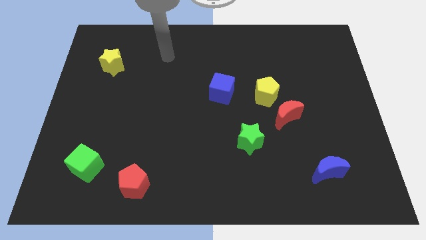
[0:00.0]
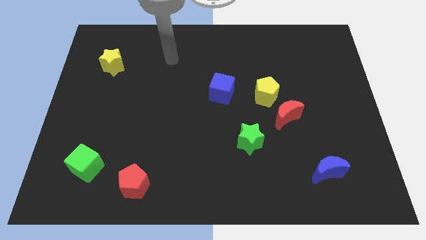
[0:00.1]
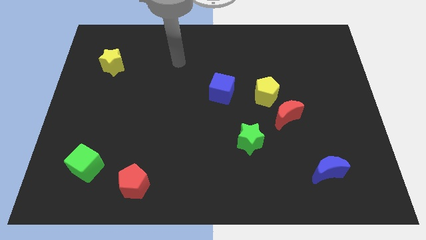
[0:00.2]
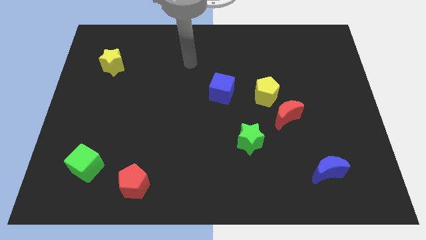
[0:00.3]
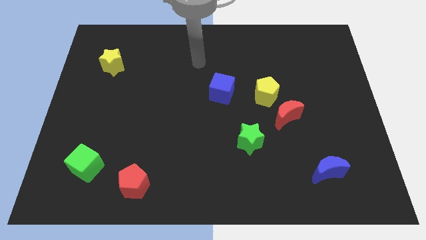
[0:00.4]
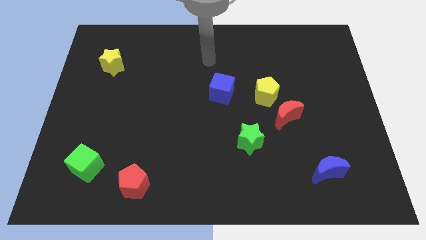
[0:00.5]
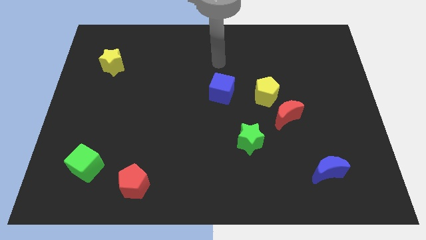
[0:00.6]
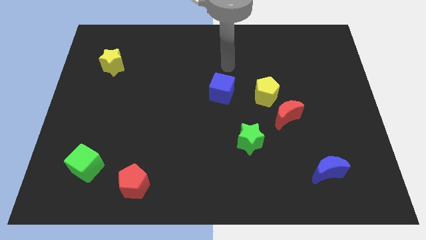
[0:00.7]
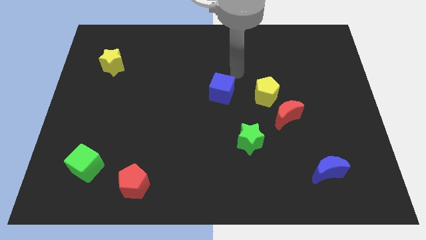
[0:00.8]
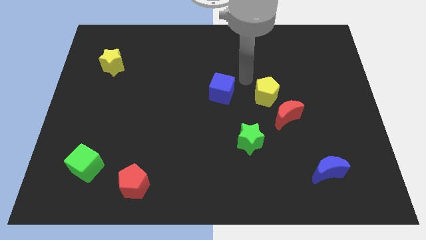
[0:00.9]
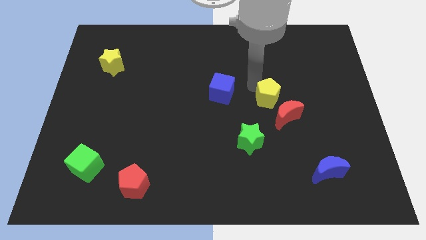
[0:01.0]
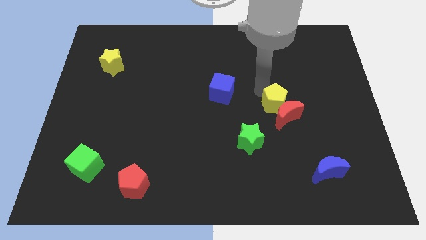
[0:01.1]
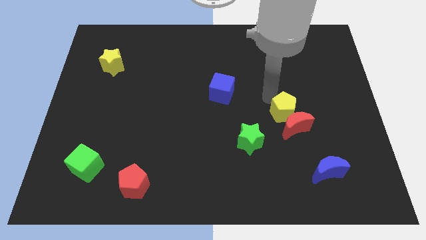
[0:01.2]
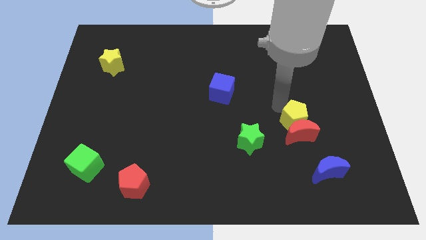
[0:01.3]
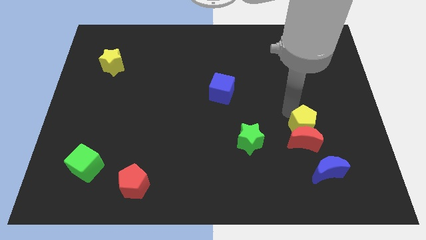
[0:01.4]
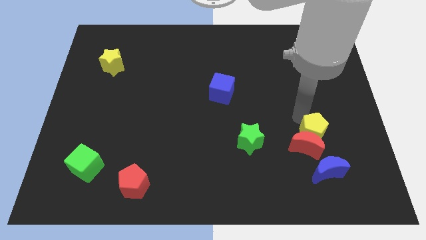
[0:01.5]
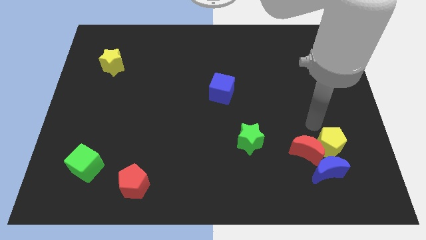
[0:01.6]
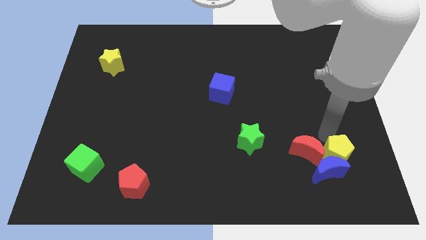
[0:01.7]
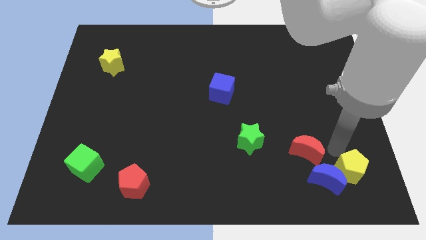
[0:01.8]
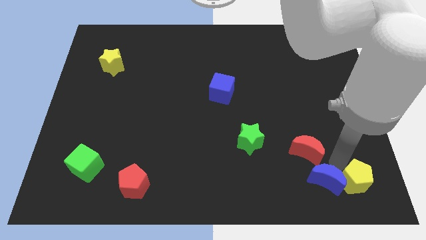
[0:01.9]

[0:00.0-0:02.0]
separate the red moon from the yellow pentagon

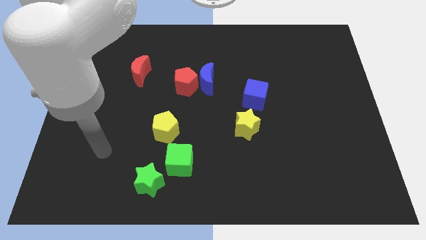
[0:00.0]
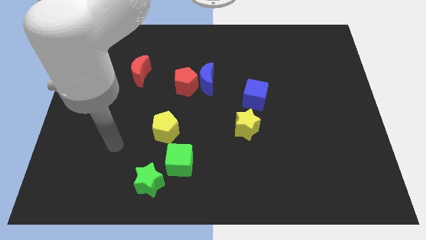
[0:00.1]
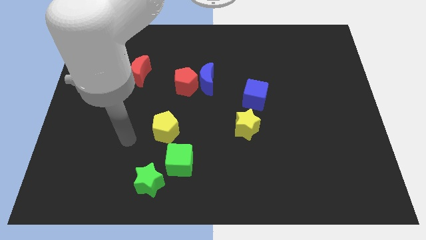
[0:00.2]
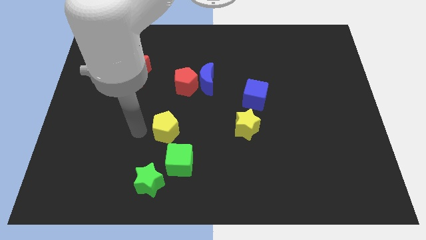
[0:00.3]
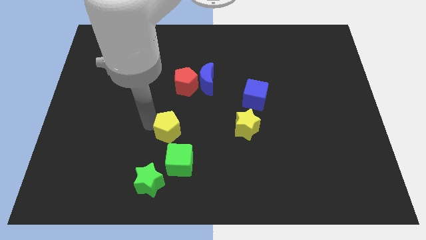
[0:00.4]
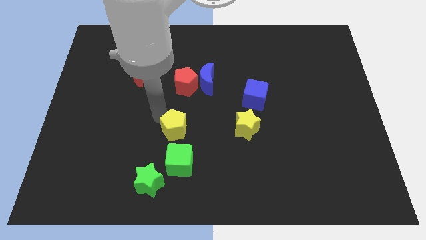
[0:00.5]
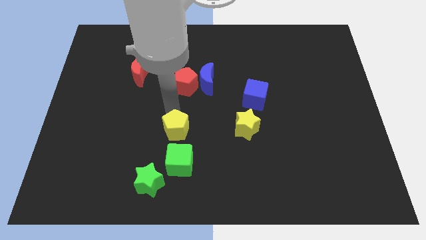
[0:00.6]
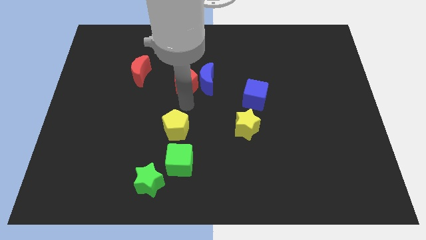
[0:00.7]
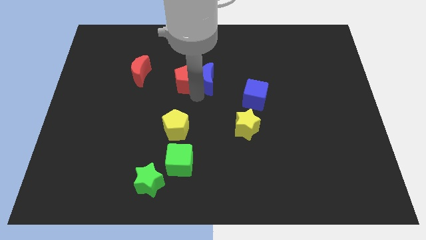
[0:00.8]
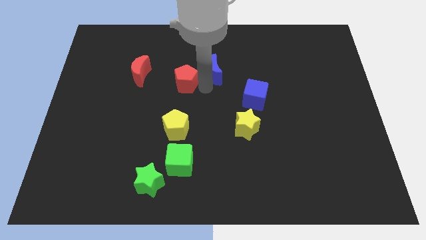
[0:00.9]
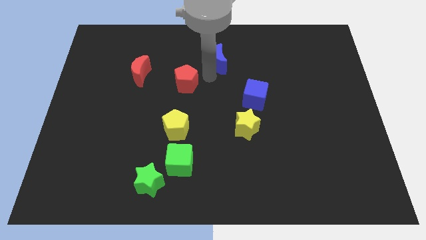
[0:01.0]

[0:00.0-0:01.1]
move the red pentagon away from the blue moon

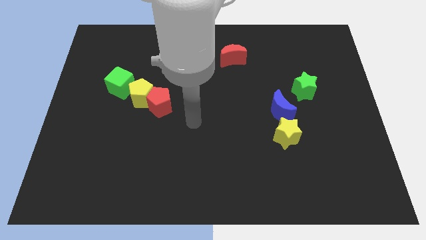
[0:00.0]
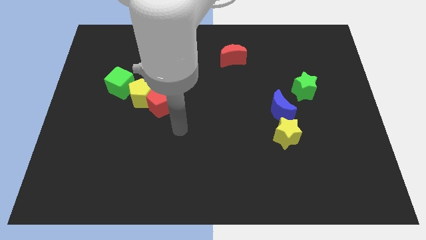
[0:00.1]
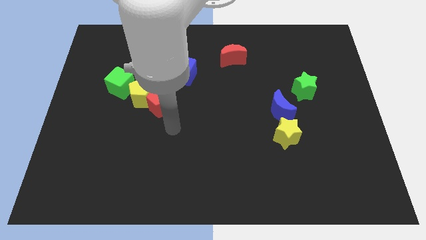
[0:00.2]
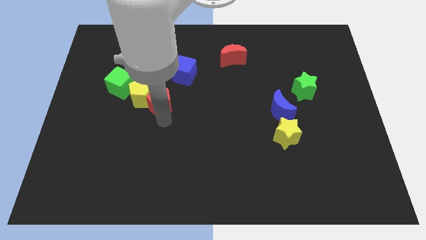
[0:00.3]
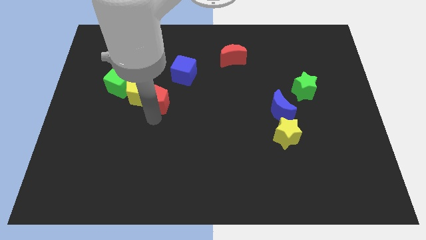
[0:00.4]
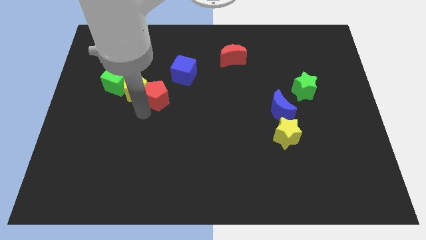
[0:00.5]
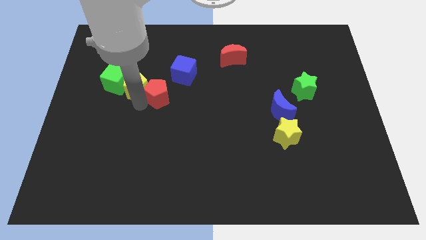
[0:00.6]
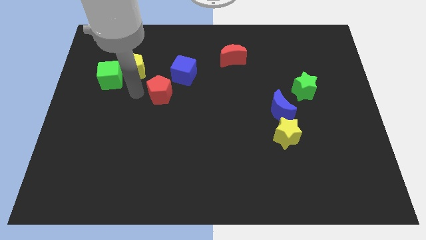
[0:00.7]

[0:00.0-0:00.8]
move the red pentagon away from the yellow pentagon

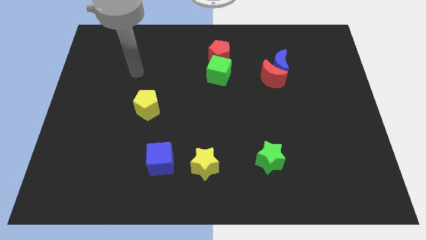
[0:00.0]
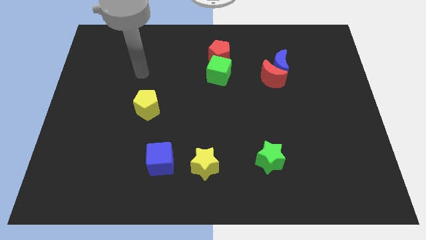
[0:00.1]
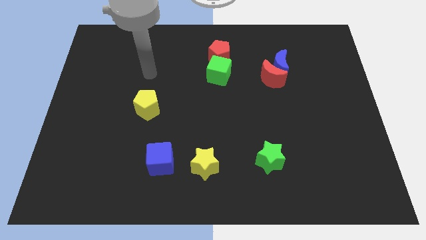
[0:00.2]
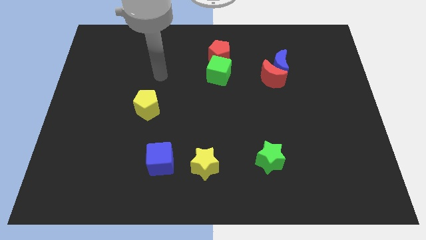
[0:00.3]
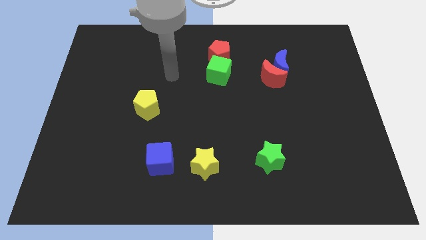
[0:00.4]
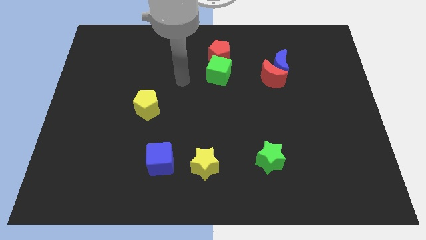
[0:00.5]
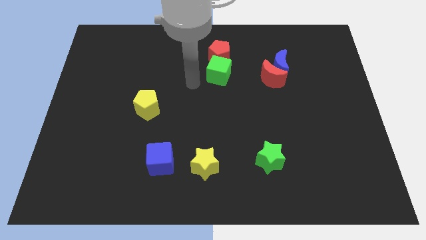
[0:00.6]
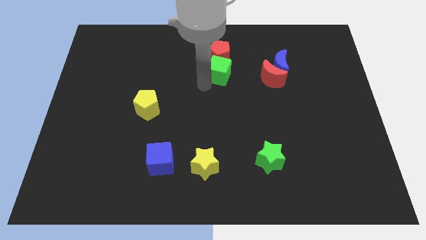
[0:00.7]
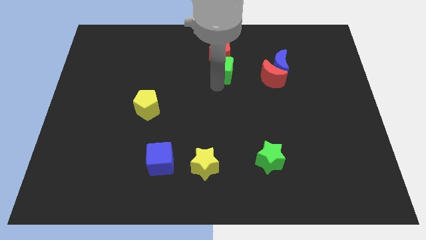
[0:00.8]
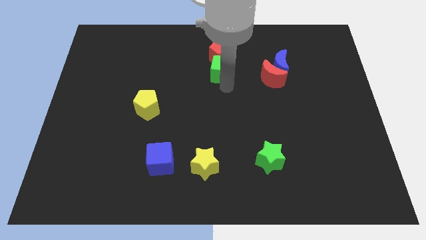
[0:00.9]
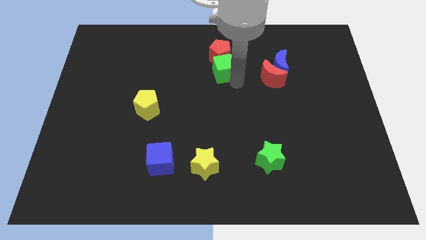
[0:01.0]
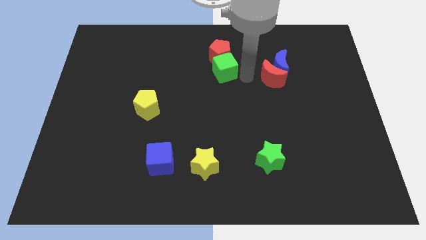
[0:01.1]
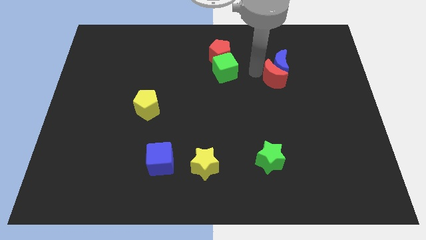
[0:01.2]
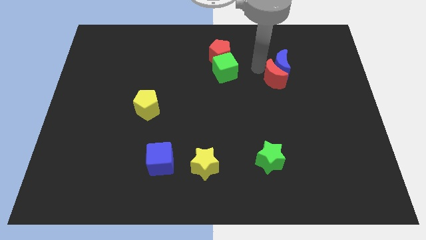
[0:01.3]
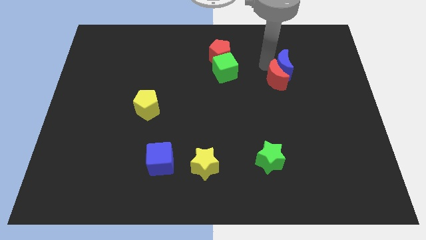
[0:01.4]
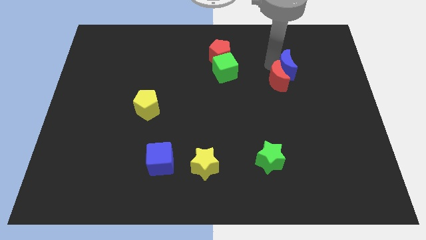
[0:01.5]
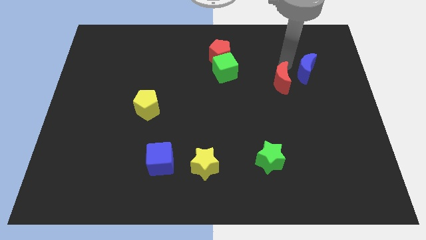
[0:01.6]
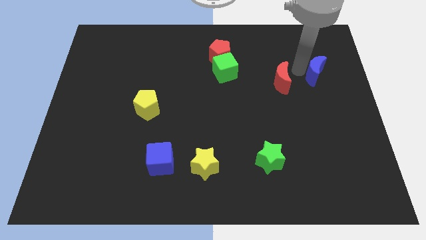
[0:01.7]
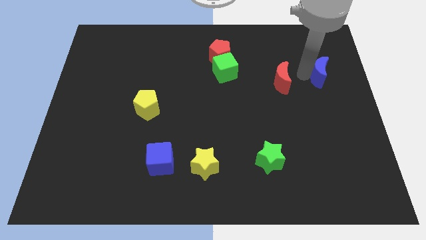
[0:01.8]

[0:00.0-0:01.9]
pull the red moon apart from the blue moon

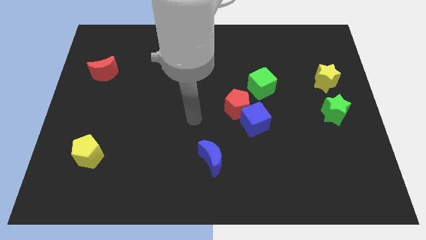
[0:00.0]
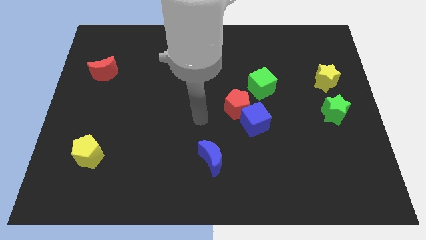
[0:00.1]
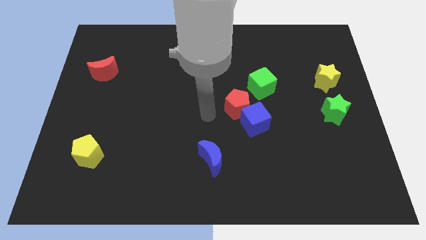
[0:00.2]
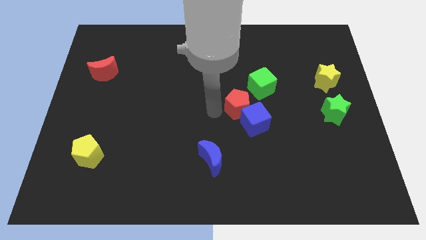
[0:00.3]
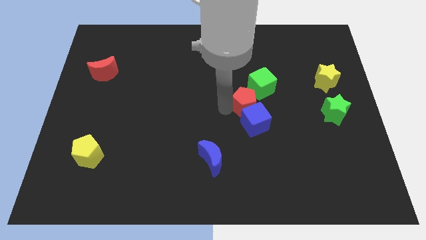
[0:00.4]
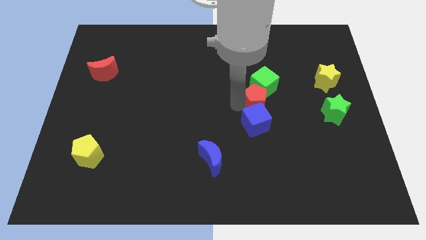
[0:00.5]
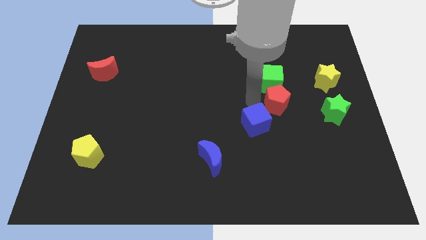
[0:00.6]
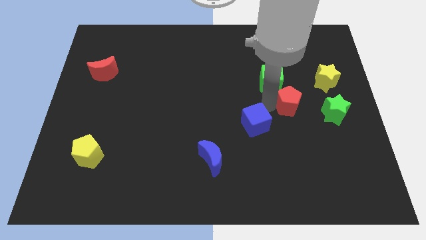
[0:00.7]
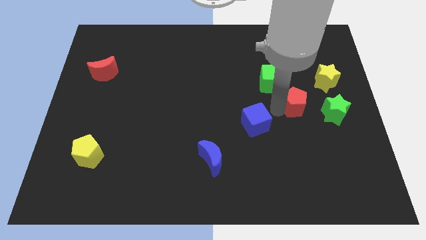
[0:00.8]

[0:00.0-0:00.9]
separate the blue cube from the red pentagon

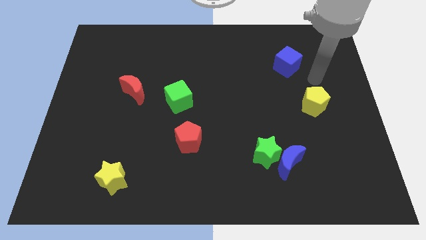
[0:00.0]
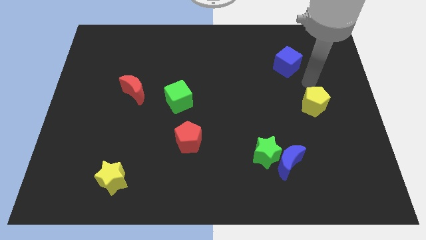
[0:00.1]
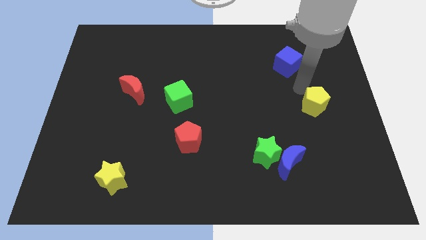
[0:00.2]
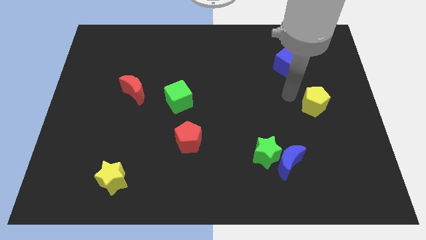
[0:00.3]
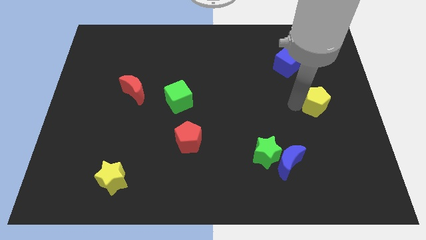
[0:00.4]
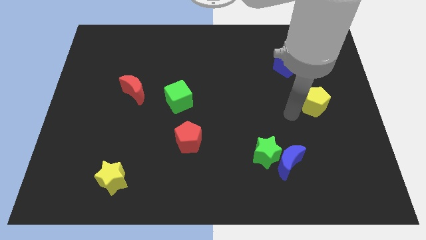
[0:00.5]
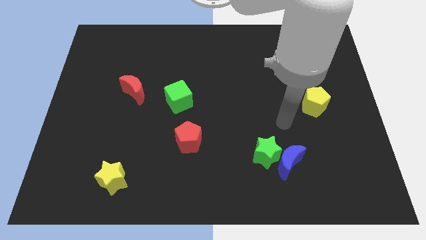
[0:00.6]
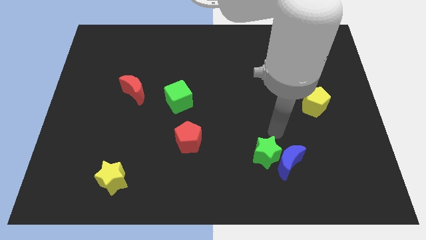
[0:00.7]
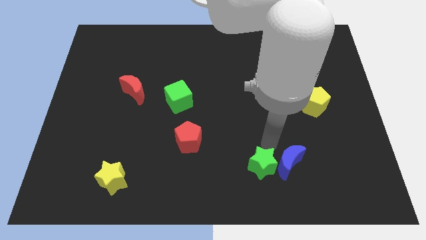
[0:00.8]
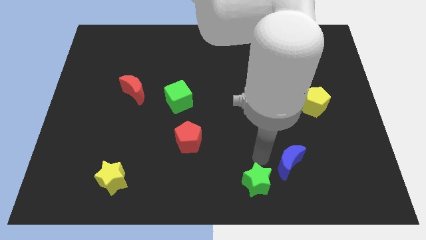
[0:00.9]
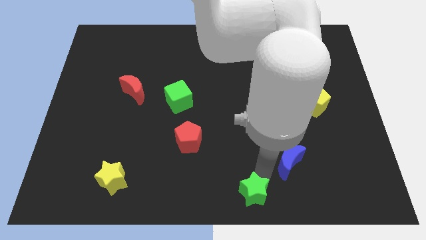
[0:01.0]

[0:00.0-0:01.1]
move the blue moon away from the green star

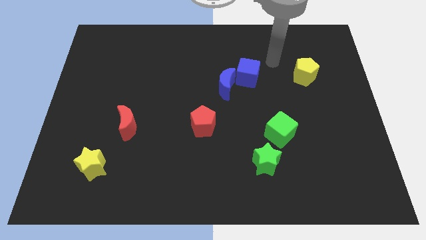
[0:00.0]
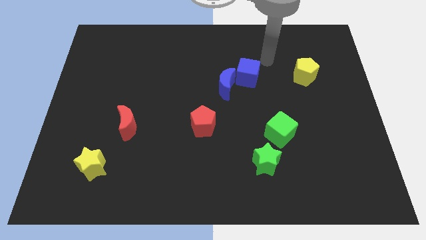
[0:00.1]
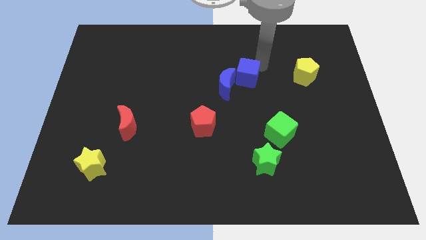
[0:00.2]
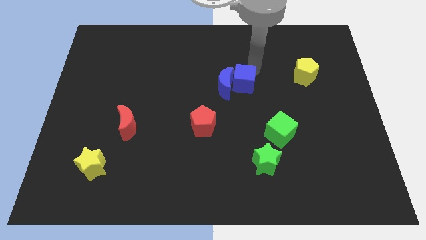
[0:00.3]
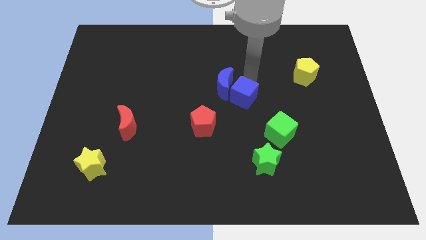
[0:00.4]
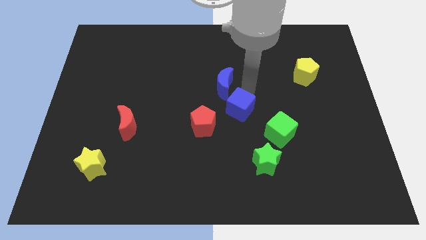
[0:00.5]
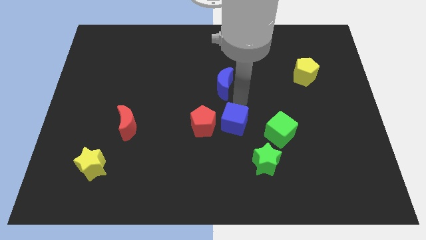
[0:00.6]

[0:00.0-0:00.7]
pull the blue moon apart from the blue cube

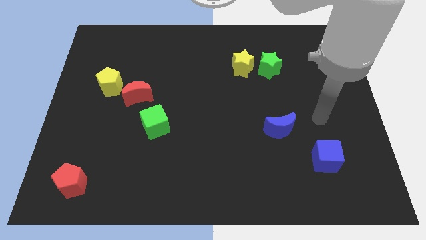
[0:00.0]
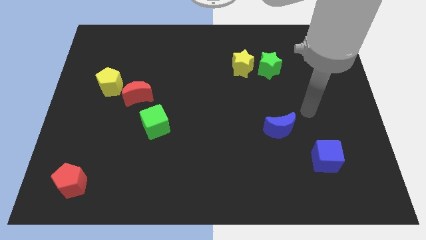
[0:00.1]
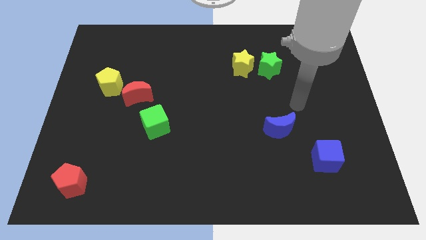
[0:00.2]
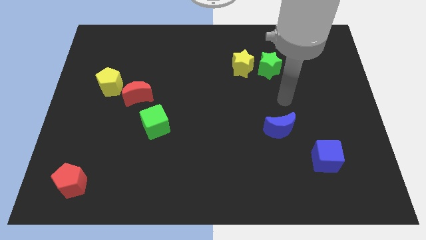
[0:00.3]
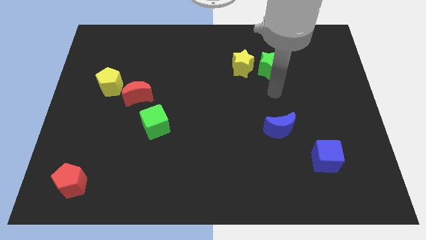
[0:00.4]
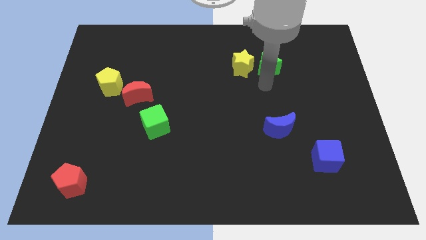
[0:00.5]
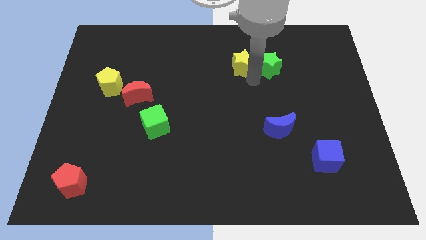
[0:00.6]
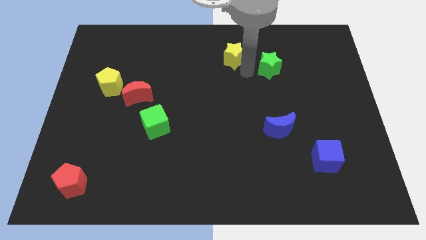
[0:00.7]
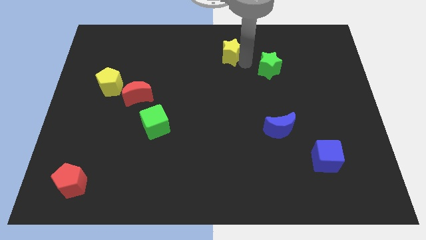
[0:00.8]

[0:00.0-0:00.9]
pull the green star apart from the yellow star

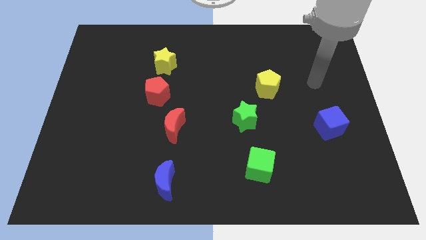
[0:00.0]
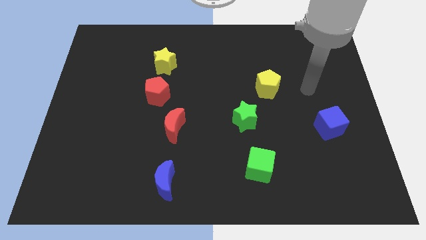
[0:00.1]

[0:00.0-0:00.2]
move the red pentagon away from the yellow star
